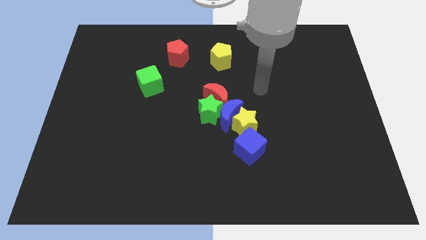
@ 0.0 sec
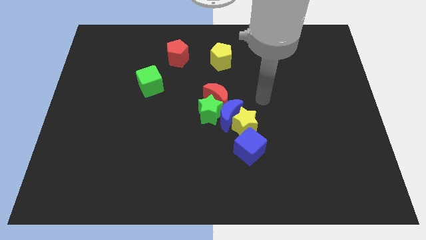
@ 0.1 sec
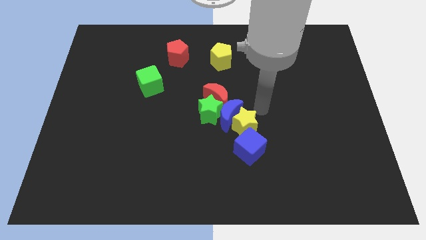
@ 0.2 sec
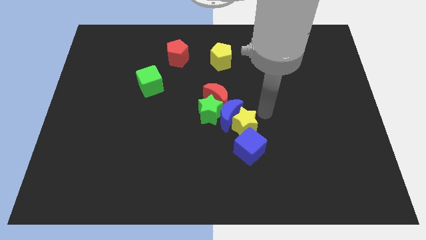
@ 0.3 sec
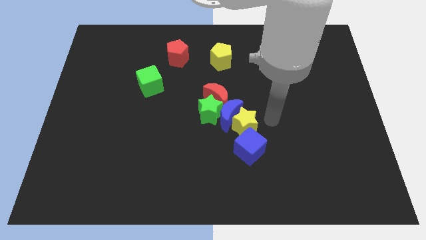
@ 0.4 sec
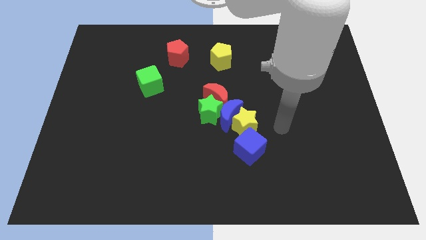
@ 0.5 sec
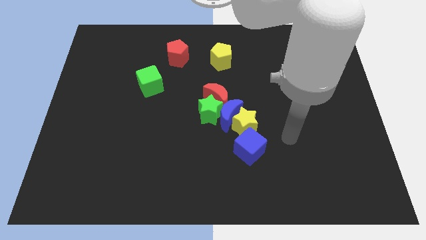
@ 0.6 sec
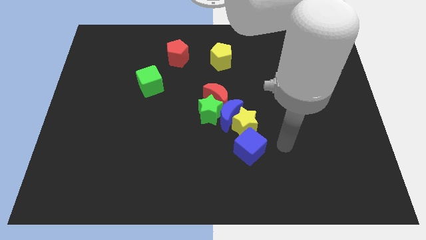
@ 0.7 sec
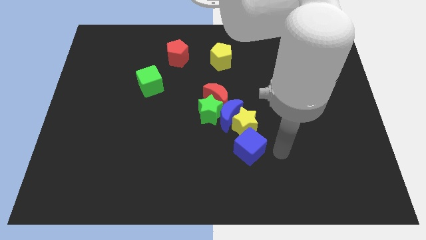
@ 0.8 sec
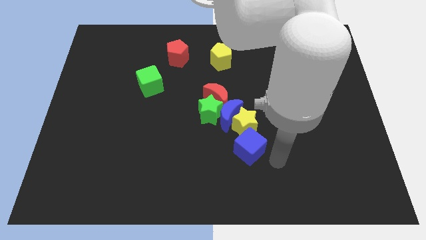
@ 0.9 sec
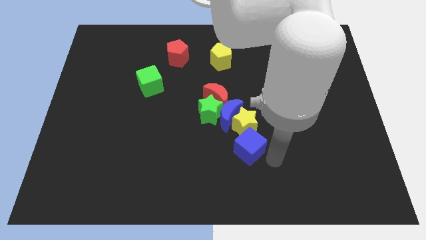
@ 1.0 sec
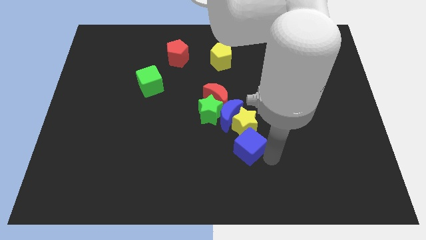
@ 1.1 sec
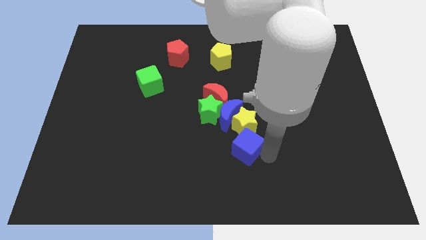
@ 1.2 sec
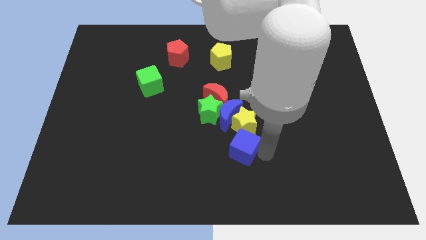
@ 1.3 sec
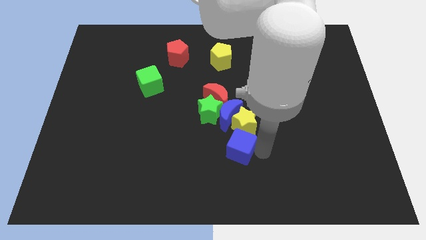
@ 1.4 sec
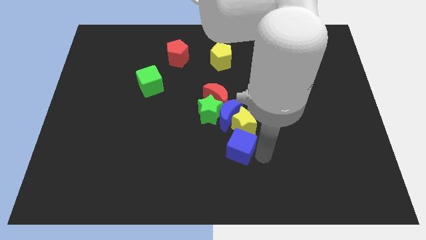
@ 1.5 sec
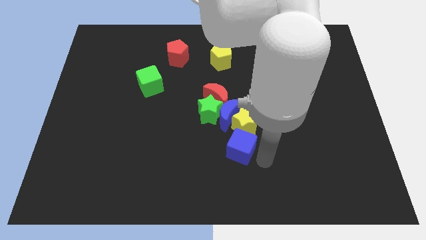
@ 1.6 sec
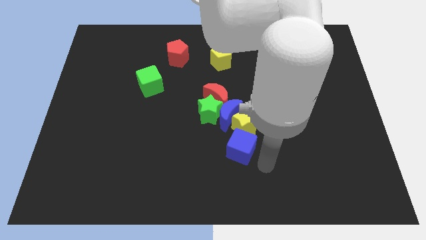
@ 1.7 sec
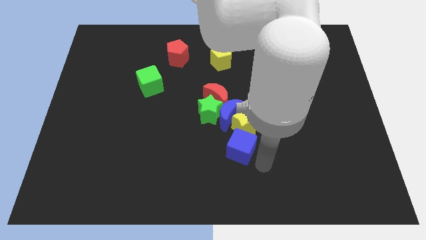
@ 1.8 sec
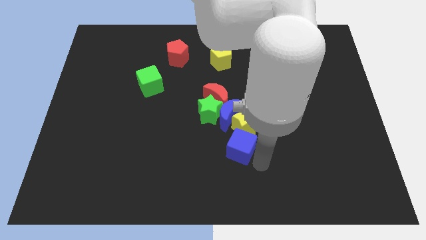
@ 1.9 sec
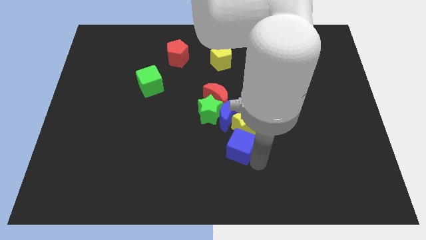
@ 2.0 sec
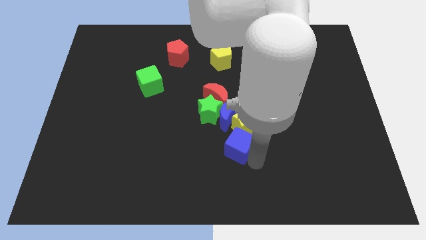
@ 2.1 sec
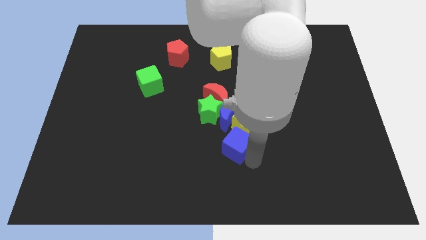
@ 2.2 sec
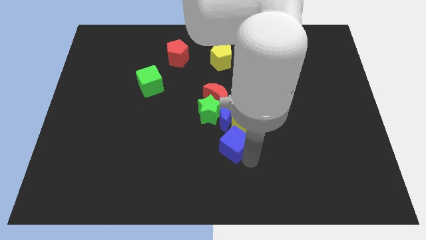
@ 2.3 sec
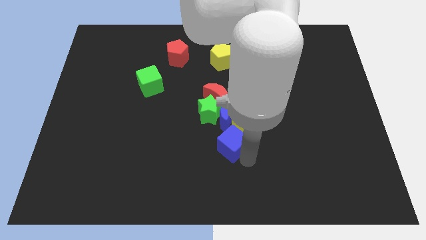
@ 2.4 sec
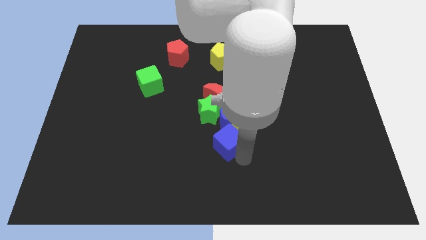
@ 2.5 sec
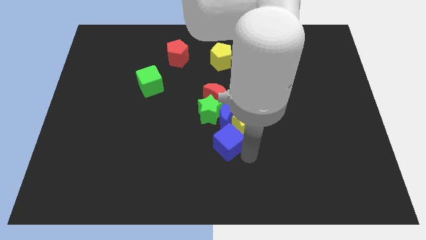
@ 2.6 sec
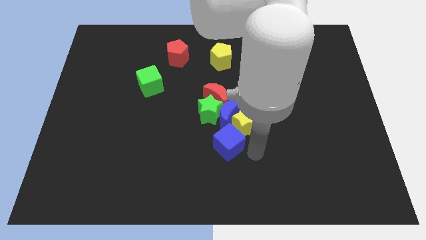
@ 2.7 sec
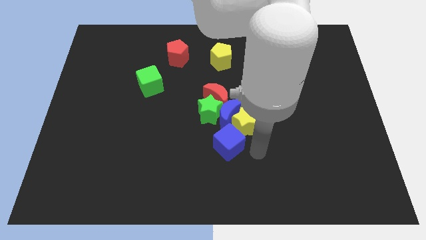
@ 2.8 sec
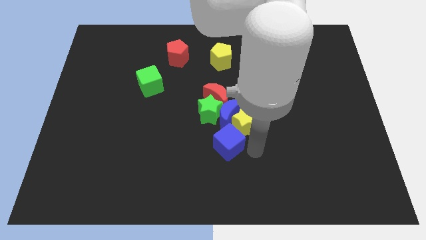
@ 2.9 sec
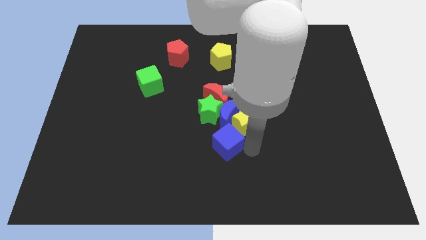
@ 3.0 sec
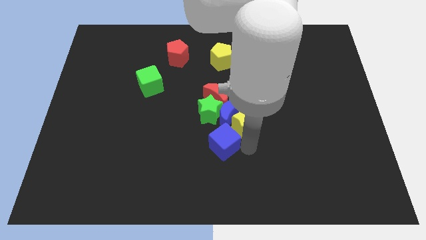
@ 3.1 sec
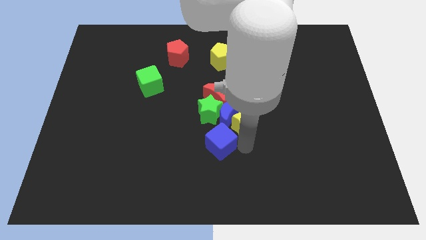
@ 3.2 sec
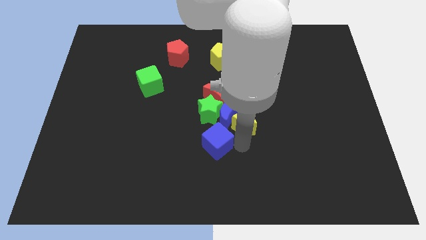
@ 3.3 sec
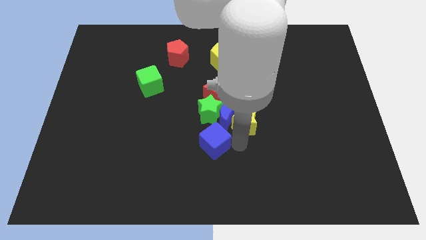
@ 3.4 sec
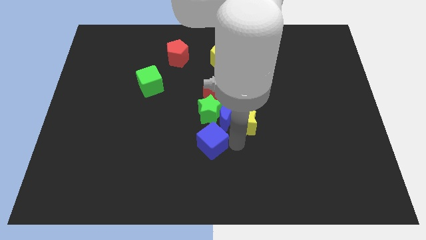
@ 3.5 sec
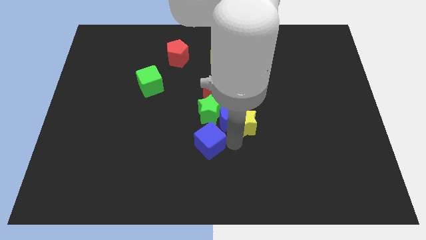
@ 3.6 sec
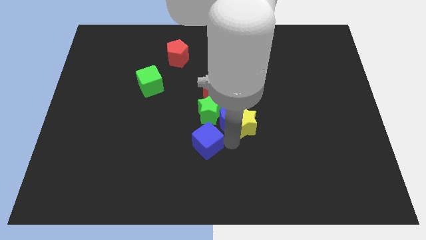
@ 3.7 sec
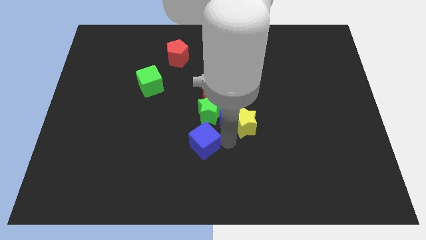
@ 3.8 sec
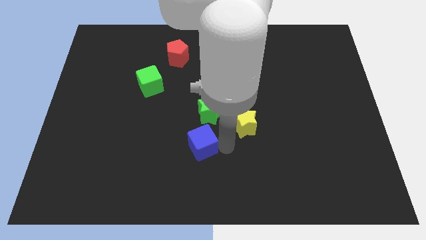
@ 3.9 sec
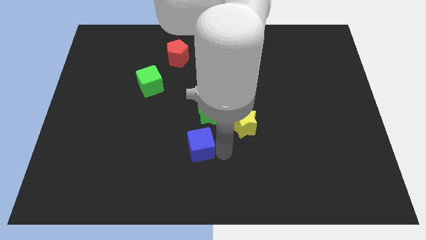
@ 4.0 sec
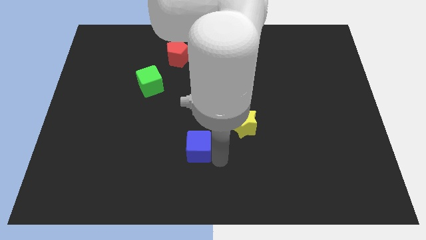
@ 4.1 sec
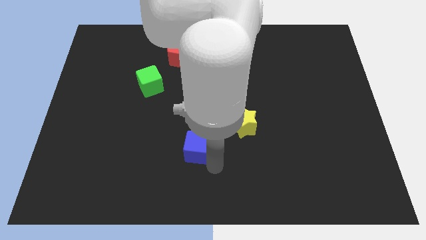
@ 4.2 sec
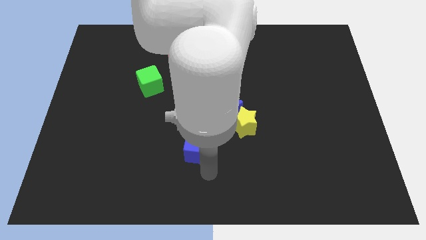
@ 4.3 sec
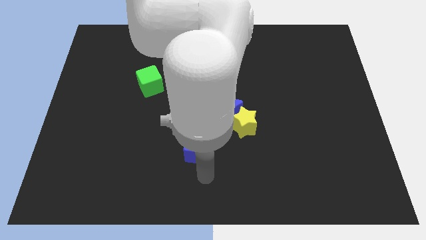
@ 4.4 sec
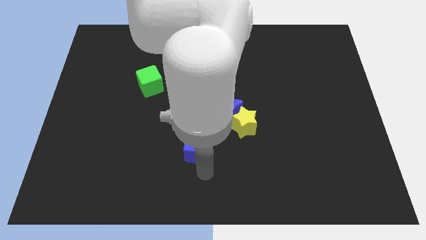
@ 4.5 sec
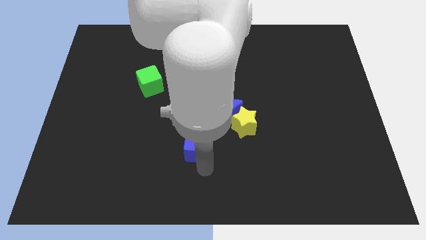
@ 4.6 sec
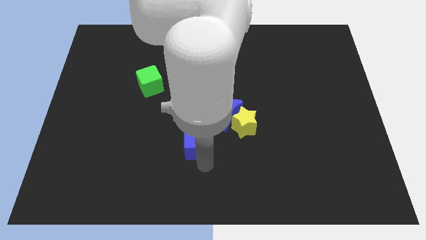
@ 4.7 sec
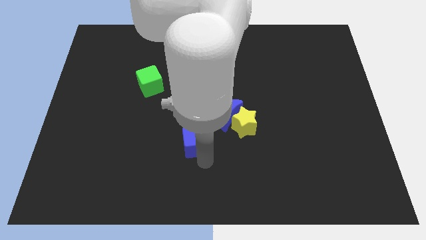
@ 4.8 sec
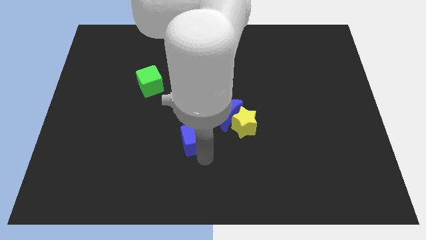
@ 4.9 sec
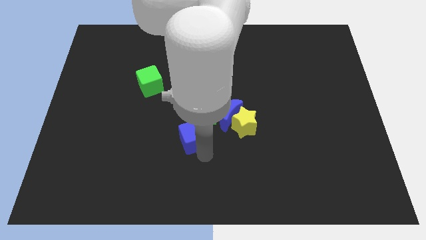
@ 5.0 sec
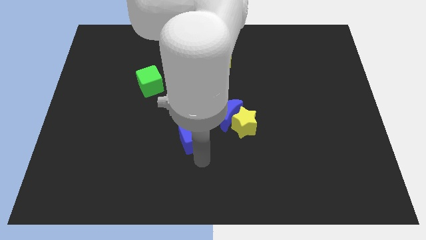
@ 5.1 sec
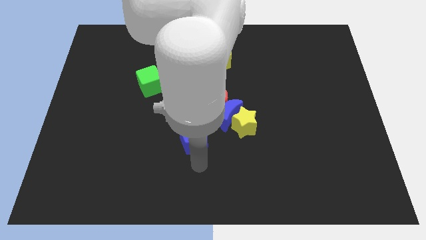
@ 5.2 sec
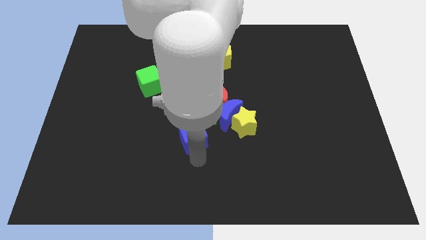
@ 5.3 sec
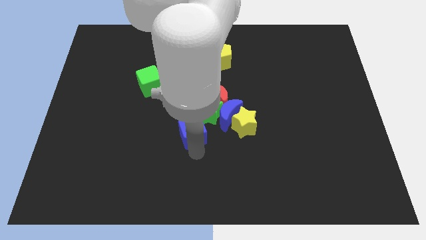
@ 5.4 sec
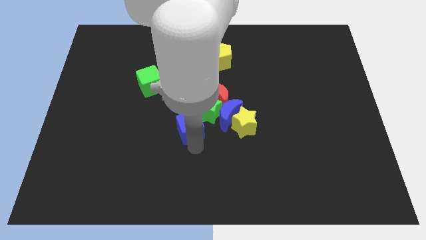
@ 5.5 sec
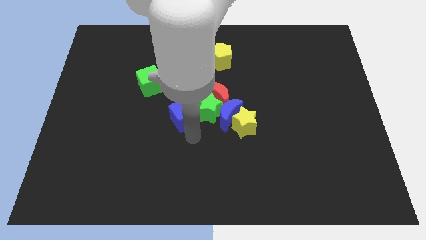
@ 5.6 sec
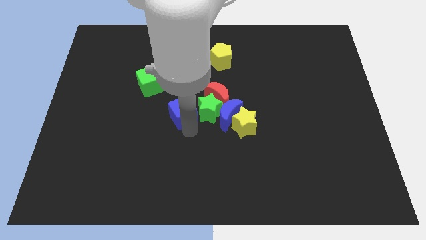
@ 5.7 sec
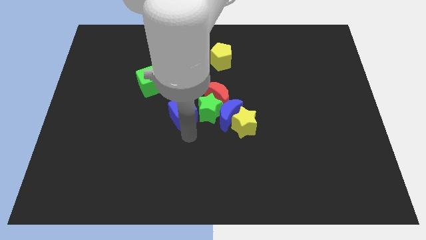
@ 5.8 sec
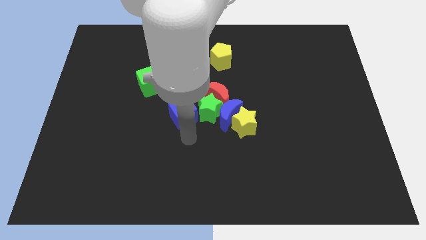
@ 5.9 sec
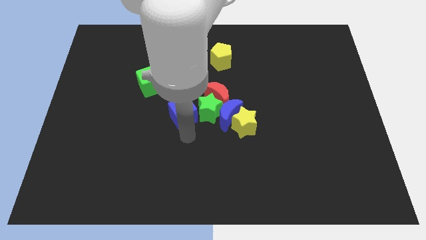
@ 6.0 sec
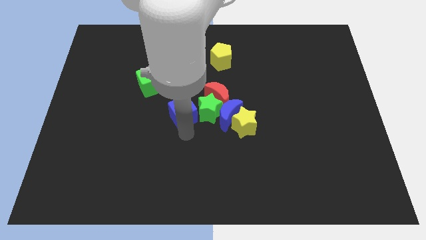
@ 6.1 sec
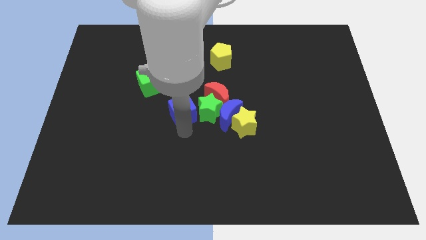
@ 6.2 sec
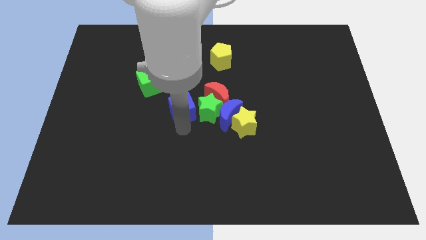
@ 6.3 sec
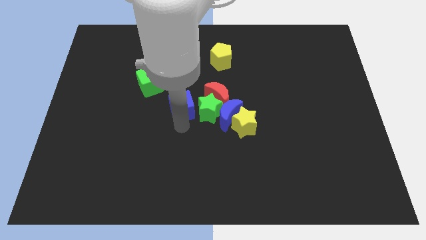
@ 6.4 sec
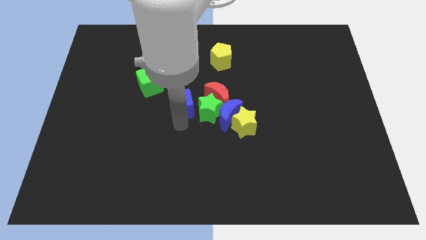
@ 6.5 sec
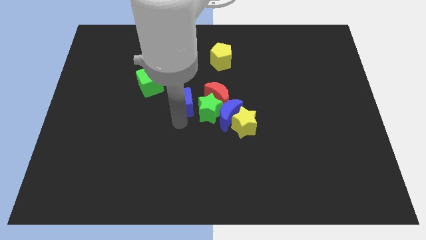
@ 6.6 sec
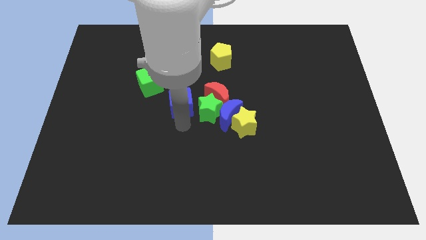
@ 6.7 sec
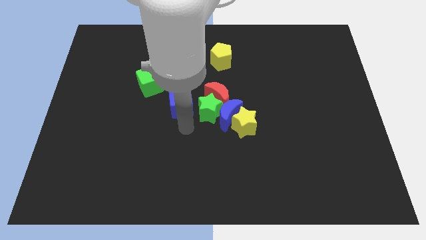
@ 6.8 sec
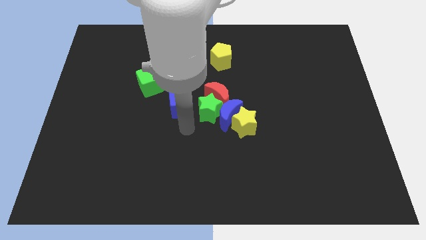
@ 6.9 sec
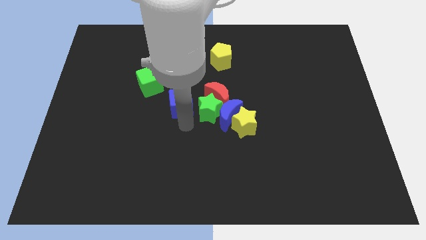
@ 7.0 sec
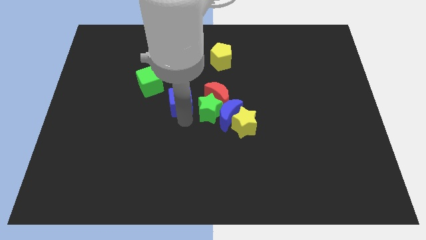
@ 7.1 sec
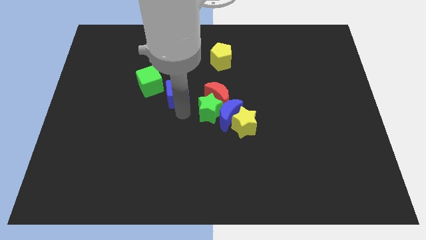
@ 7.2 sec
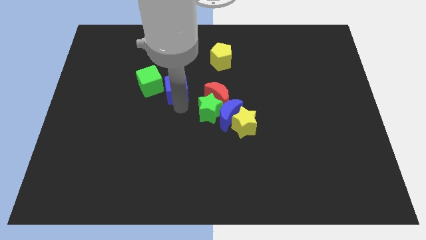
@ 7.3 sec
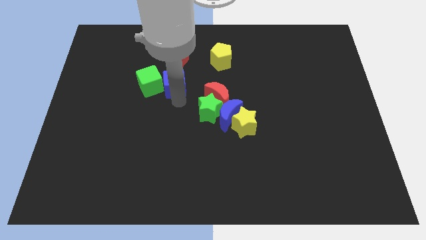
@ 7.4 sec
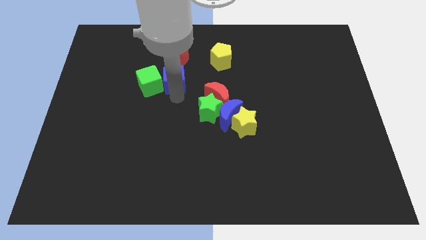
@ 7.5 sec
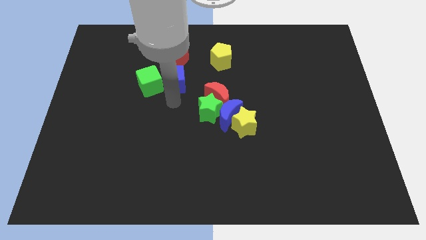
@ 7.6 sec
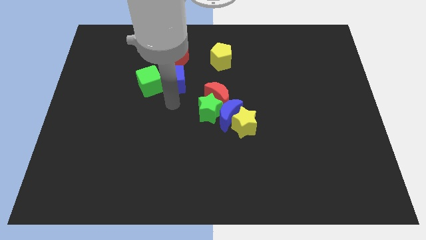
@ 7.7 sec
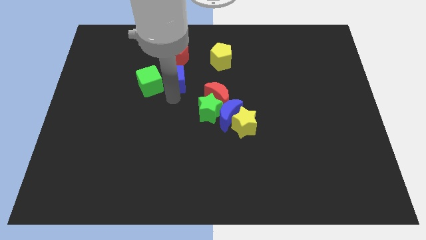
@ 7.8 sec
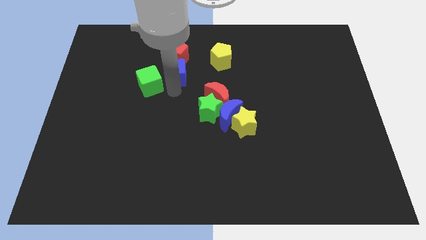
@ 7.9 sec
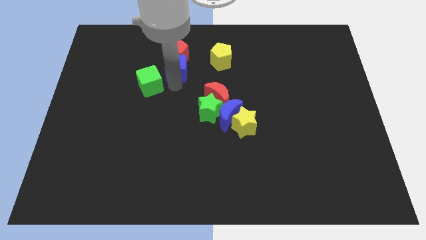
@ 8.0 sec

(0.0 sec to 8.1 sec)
move the blue cube to the red pentagon
